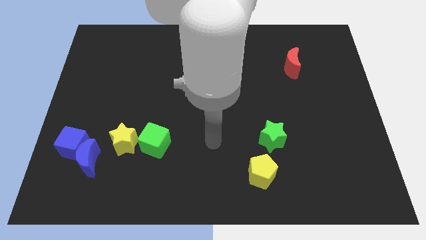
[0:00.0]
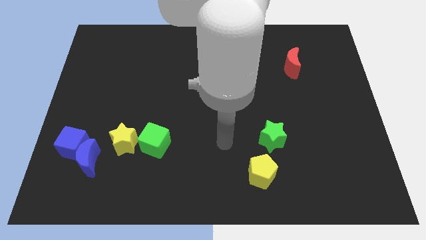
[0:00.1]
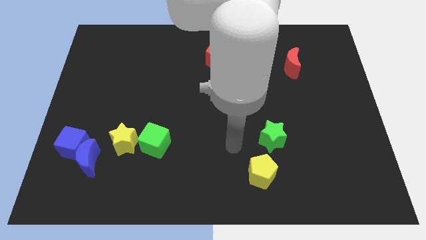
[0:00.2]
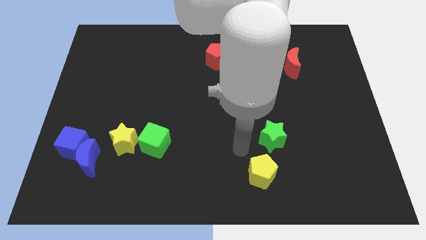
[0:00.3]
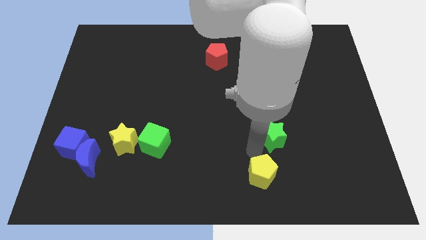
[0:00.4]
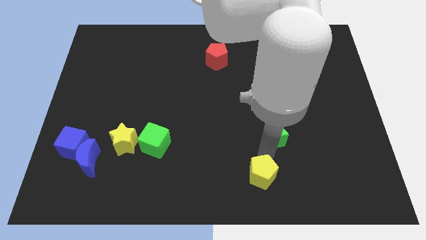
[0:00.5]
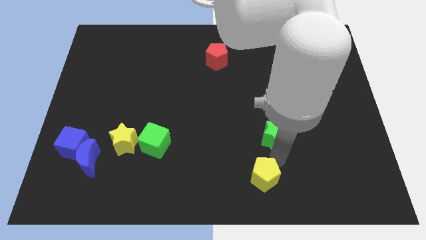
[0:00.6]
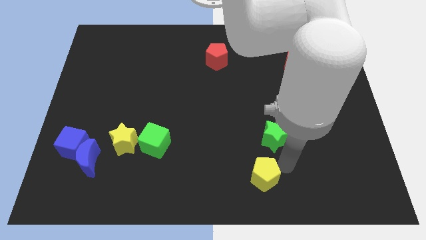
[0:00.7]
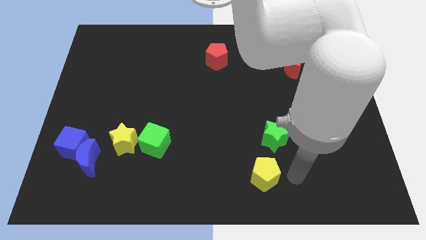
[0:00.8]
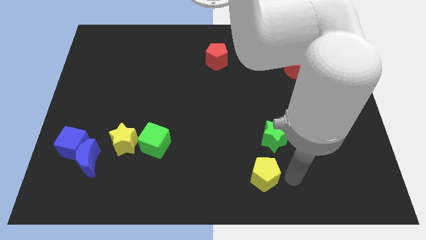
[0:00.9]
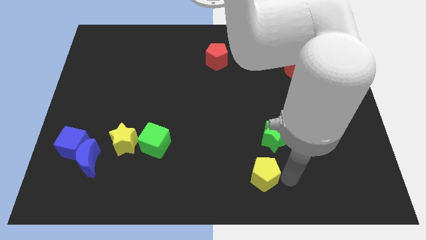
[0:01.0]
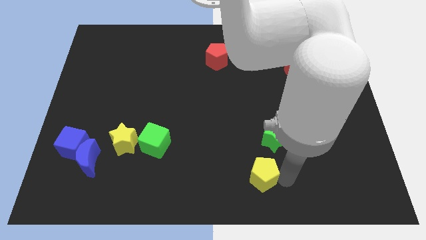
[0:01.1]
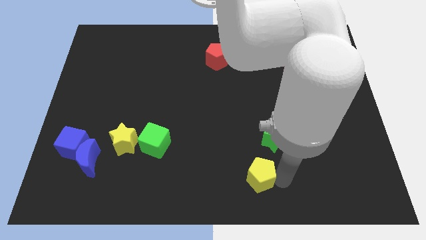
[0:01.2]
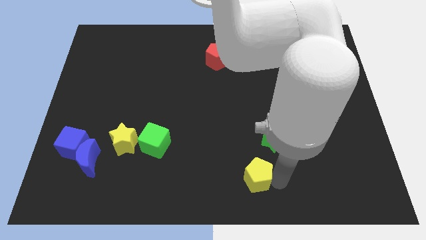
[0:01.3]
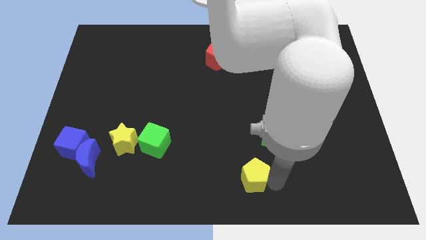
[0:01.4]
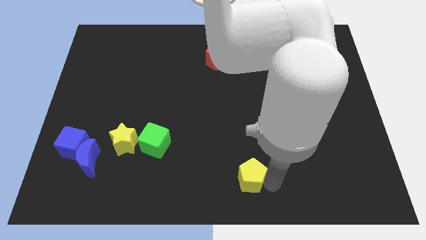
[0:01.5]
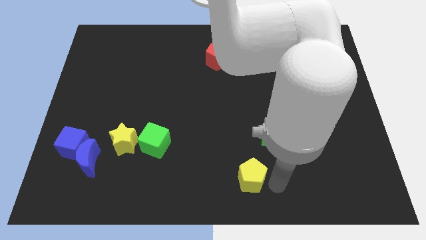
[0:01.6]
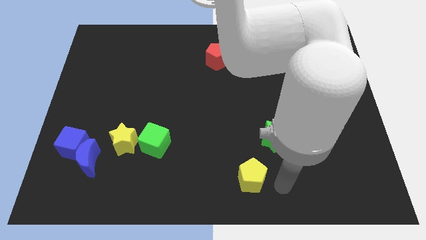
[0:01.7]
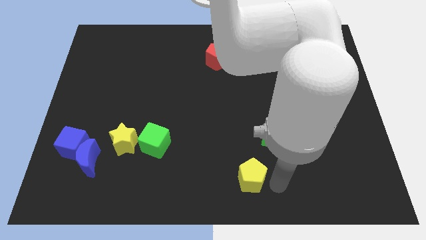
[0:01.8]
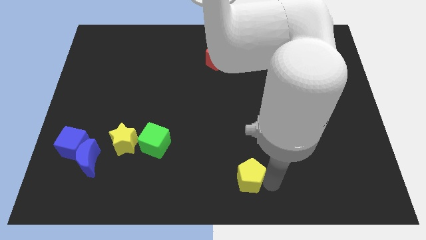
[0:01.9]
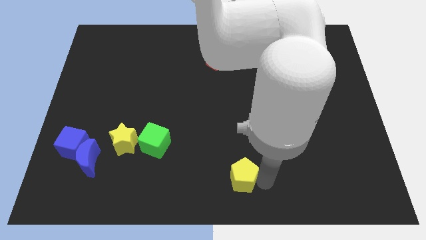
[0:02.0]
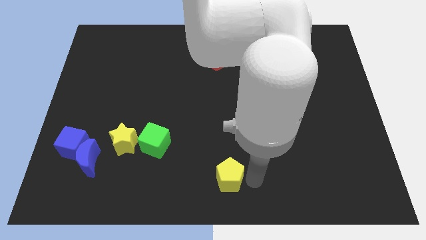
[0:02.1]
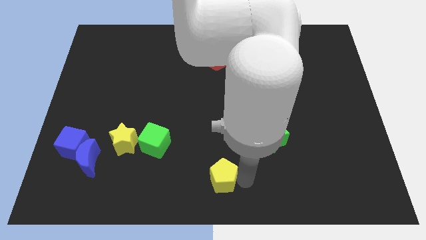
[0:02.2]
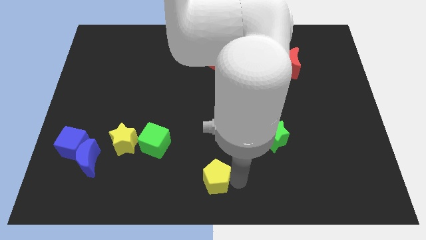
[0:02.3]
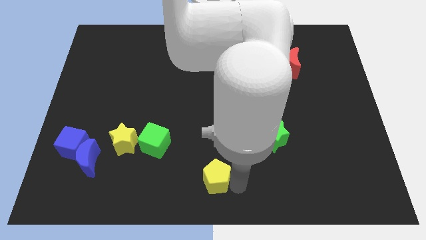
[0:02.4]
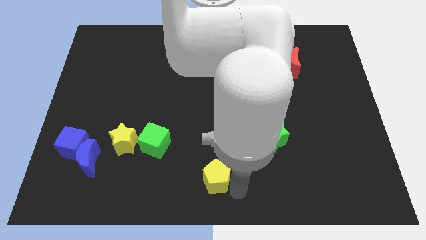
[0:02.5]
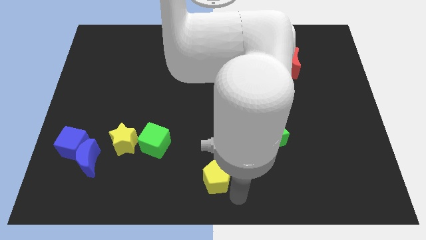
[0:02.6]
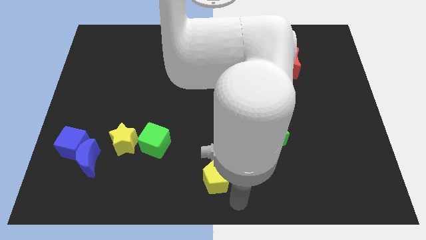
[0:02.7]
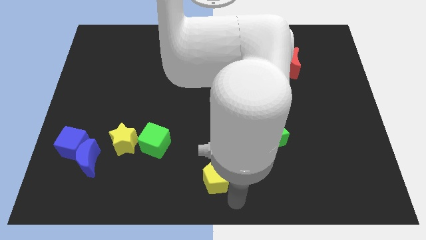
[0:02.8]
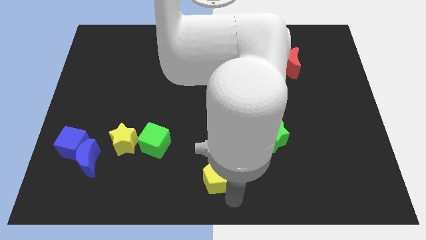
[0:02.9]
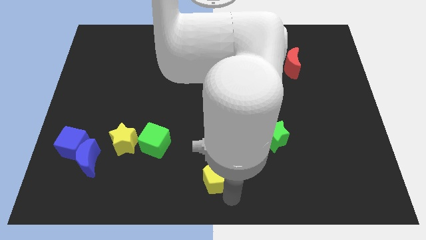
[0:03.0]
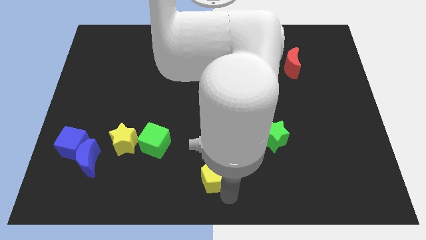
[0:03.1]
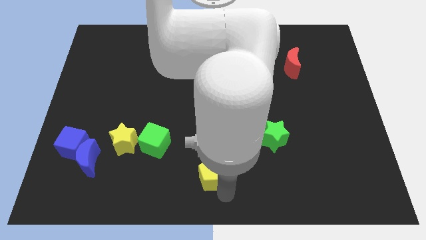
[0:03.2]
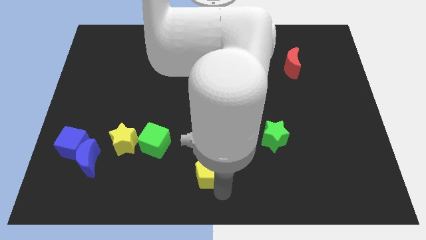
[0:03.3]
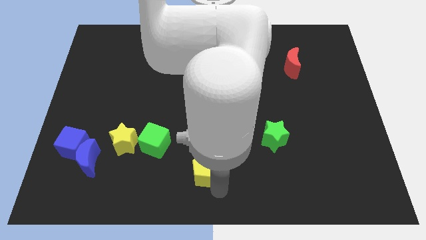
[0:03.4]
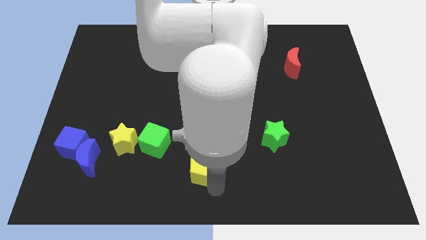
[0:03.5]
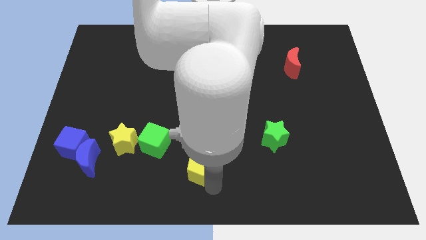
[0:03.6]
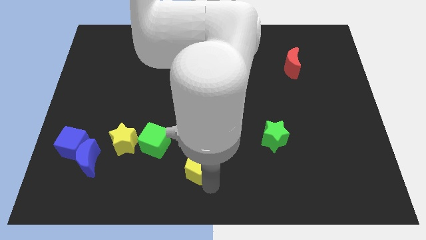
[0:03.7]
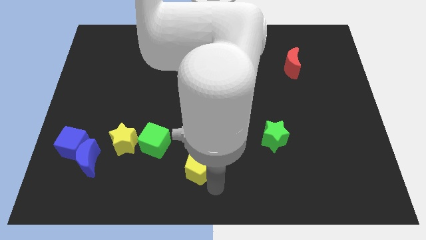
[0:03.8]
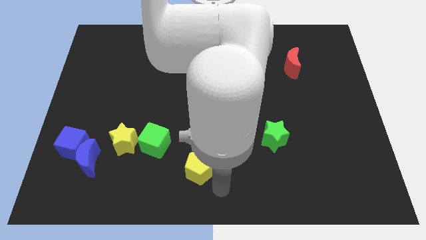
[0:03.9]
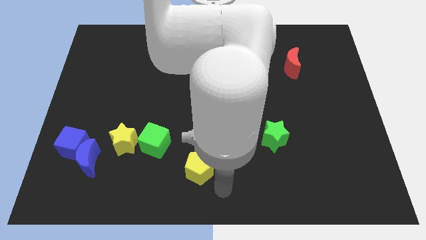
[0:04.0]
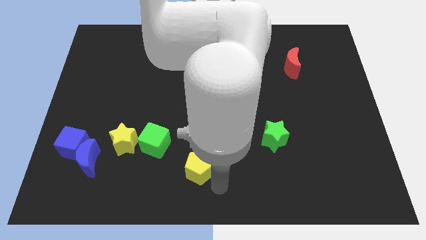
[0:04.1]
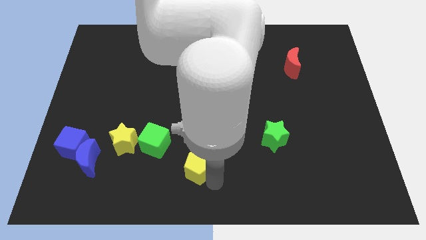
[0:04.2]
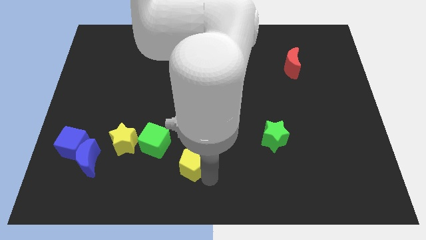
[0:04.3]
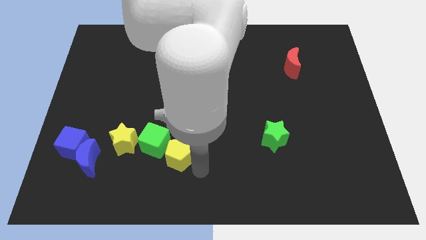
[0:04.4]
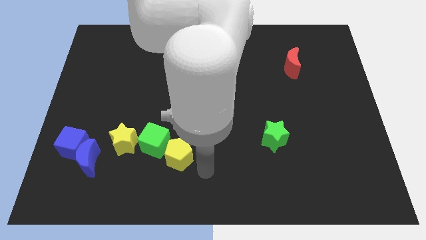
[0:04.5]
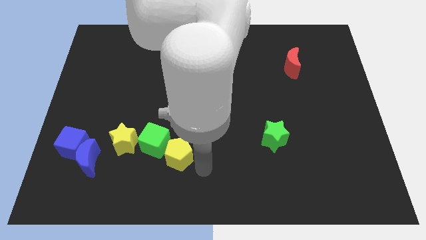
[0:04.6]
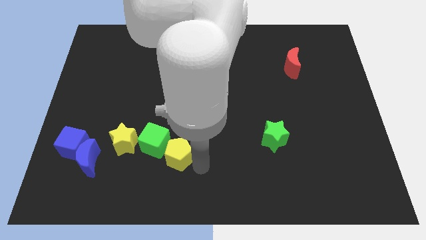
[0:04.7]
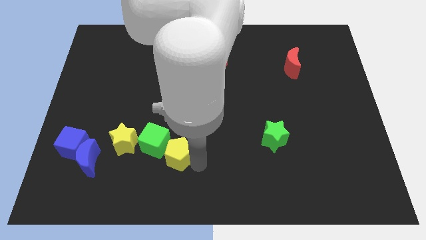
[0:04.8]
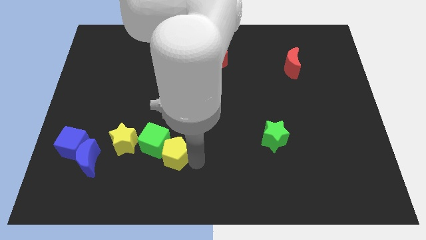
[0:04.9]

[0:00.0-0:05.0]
push the yellow pentagon towards the green cube

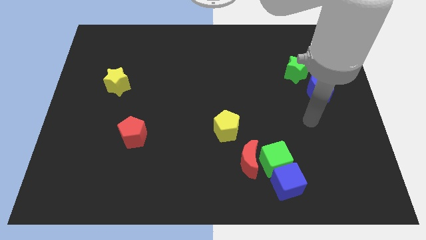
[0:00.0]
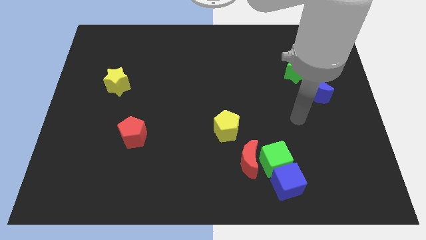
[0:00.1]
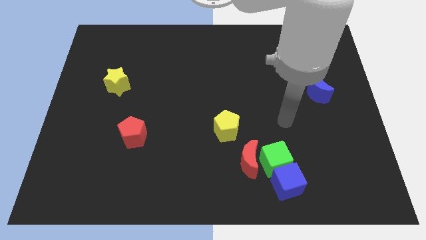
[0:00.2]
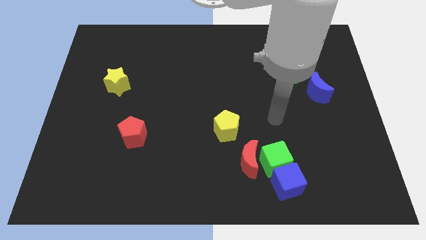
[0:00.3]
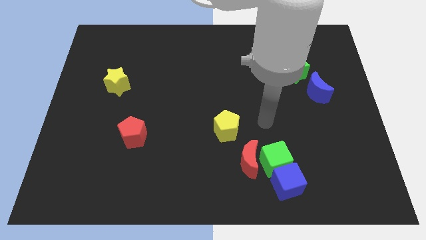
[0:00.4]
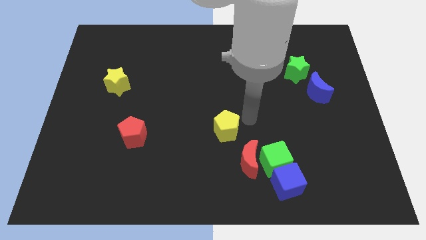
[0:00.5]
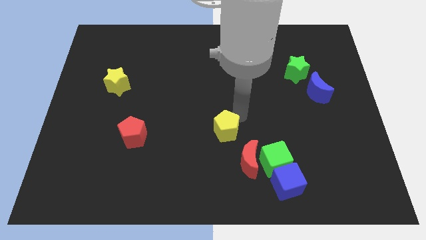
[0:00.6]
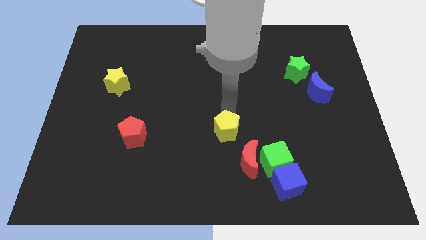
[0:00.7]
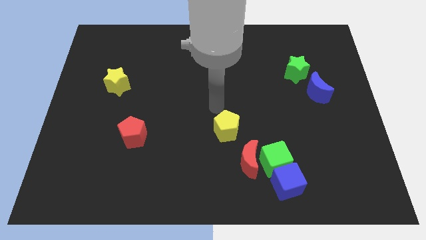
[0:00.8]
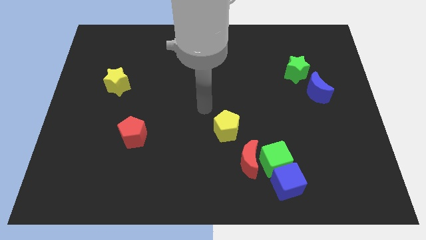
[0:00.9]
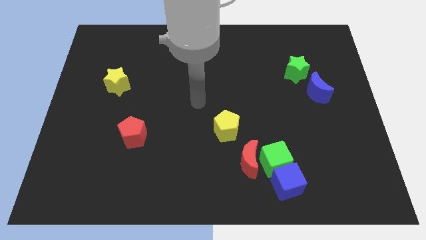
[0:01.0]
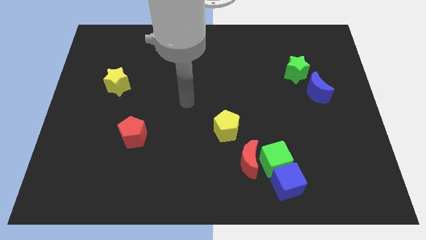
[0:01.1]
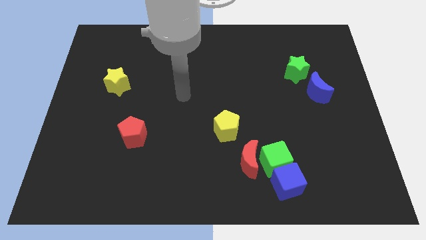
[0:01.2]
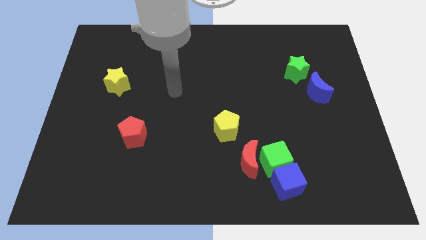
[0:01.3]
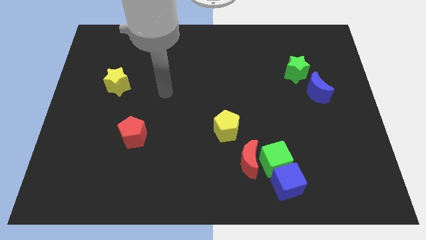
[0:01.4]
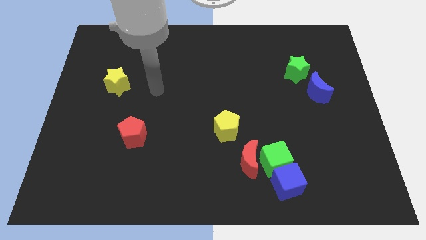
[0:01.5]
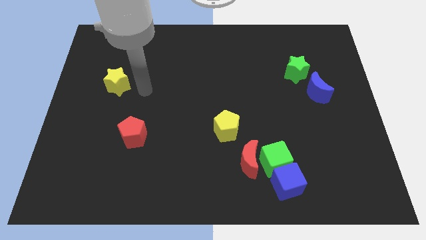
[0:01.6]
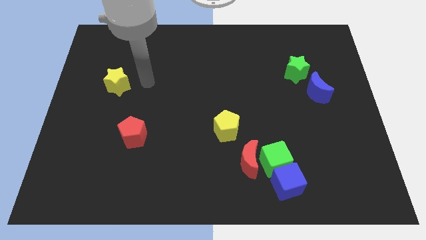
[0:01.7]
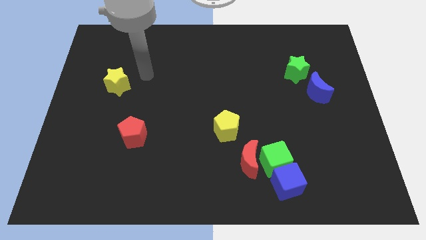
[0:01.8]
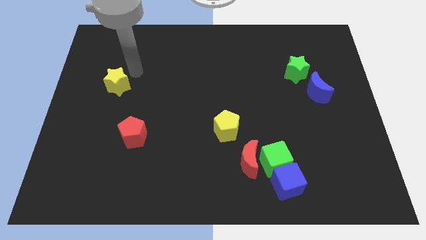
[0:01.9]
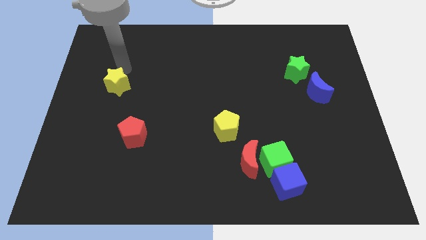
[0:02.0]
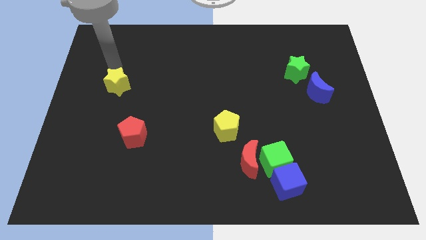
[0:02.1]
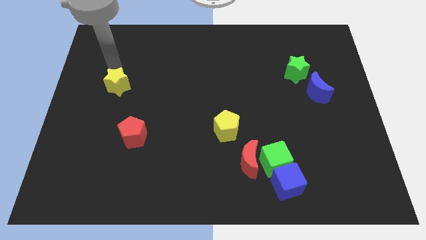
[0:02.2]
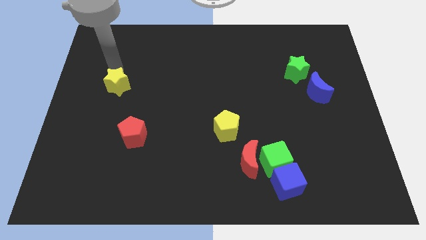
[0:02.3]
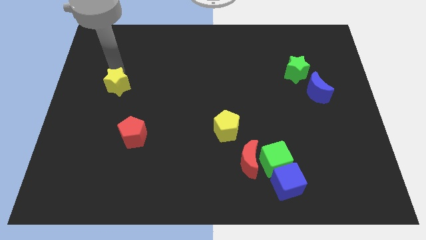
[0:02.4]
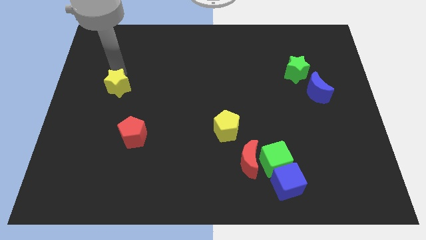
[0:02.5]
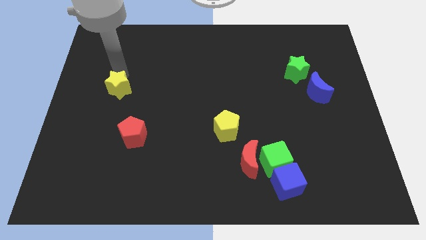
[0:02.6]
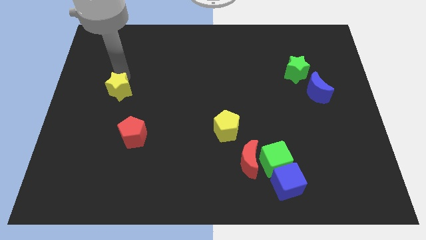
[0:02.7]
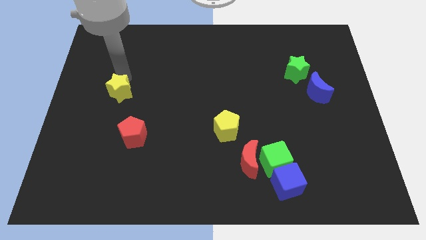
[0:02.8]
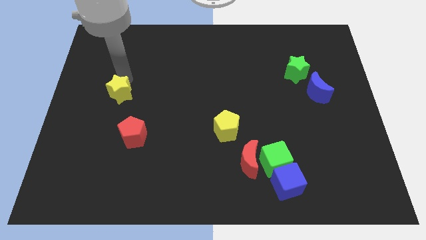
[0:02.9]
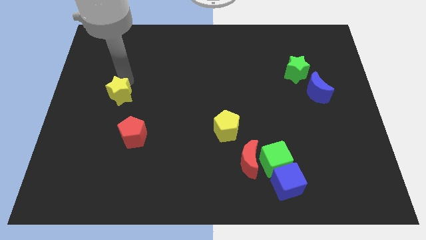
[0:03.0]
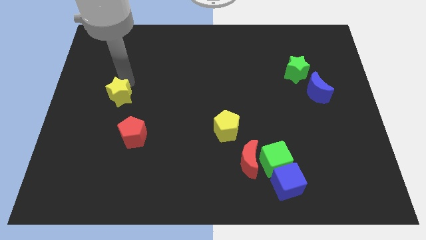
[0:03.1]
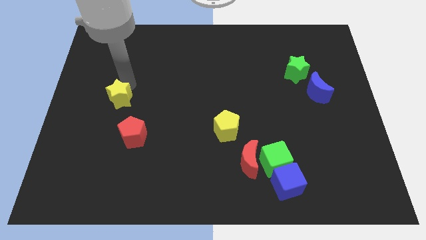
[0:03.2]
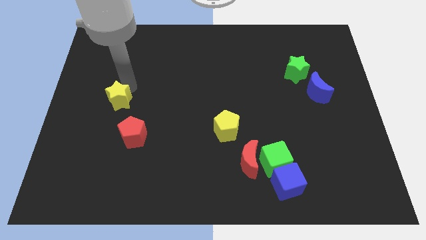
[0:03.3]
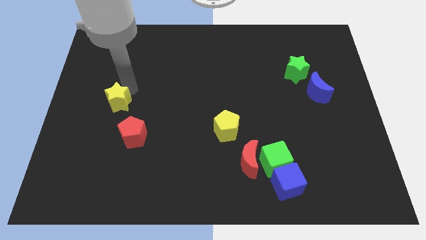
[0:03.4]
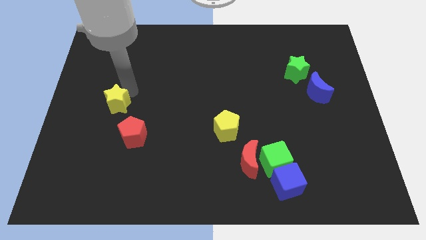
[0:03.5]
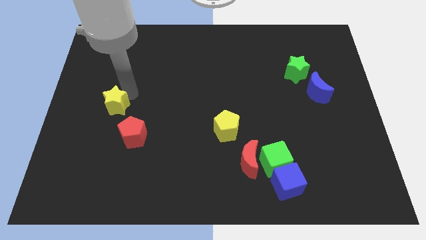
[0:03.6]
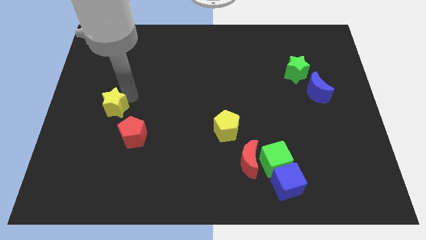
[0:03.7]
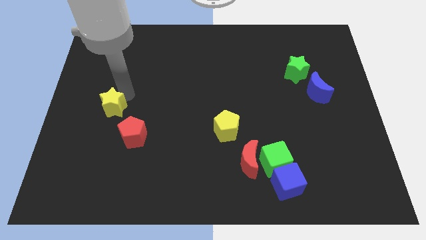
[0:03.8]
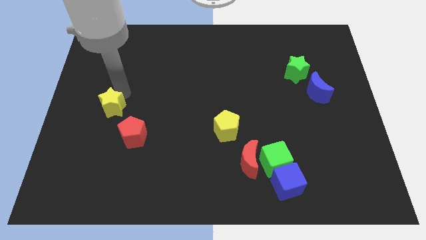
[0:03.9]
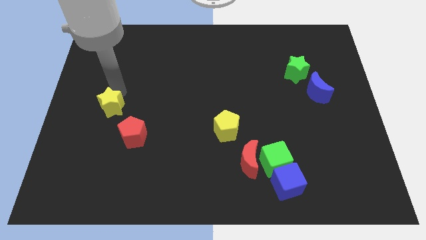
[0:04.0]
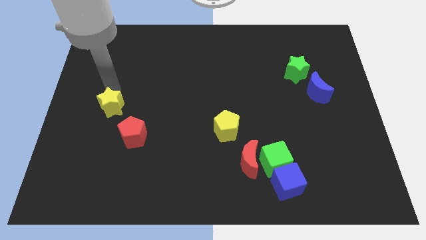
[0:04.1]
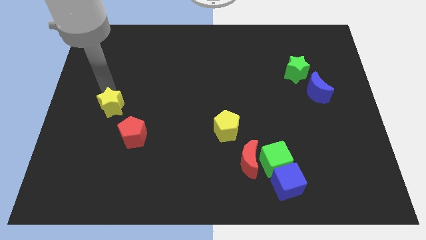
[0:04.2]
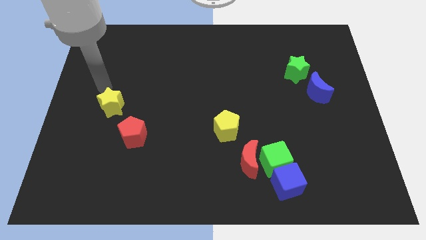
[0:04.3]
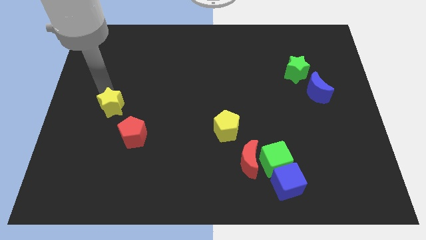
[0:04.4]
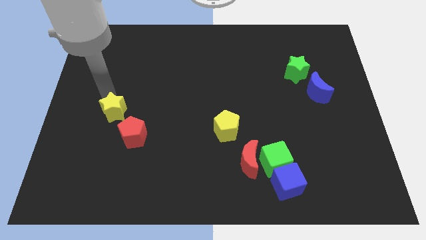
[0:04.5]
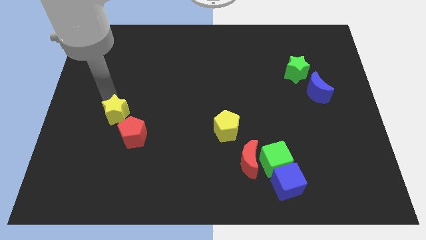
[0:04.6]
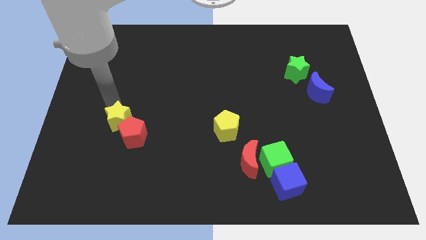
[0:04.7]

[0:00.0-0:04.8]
slide the yellow star close to the red pentagon
